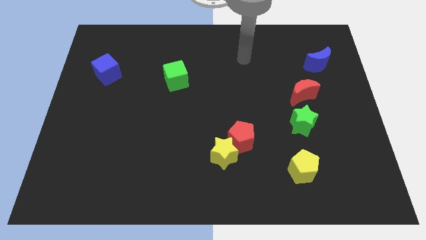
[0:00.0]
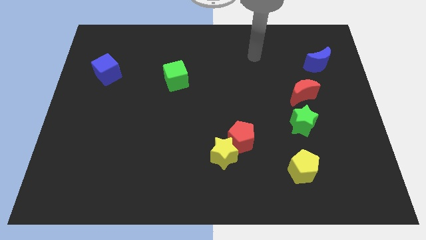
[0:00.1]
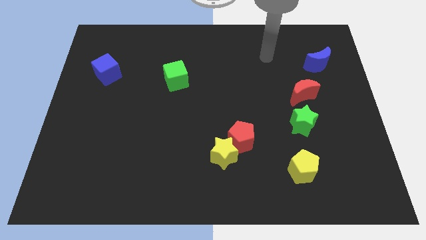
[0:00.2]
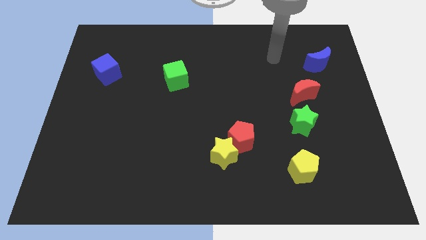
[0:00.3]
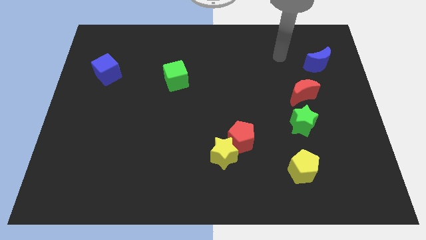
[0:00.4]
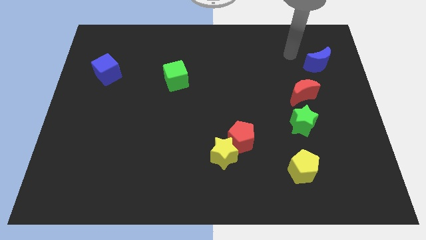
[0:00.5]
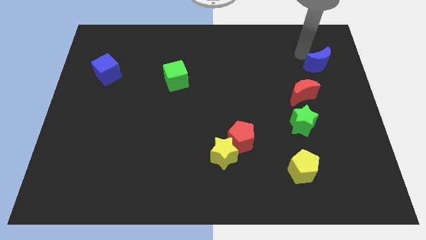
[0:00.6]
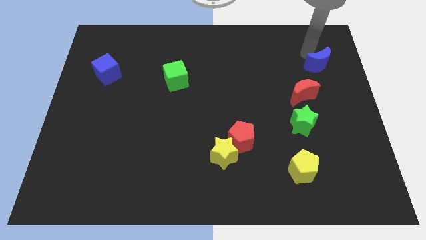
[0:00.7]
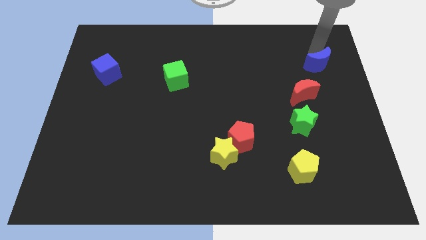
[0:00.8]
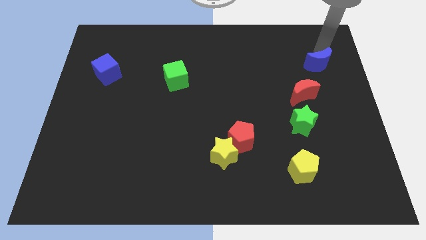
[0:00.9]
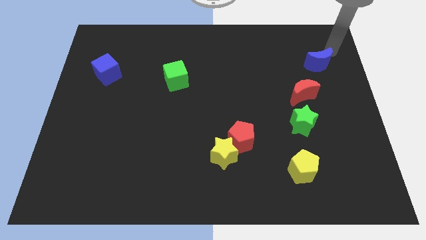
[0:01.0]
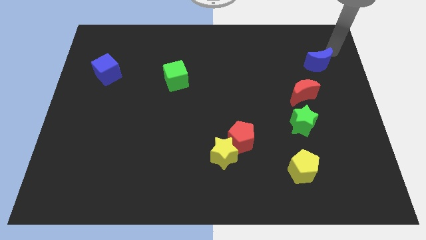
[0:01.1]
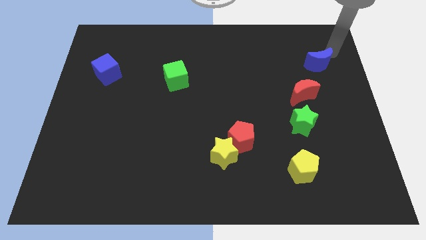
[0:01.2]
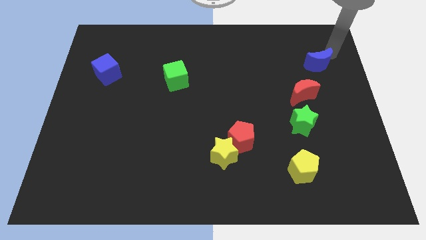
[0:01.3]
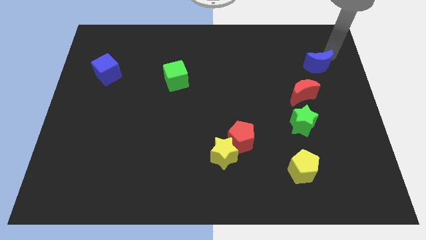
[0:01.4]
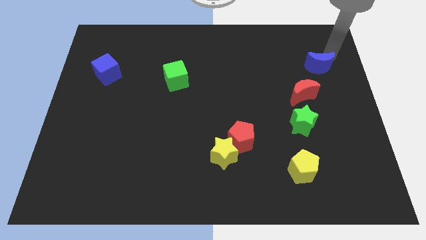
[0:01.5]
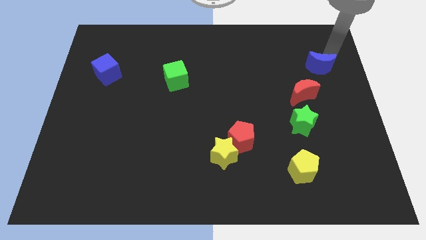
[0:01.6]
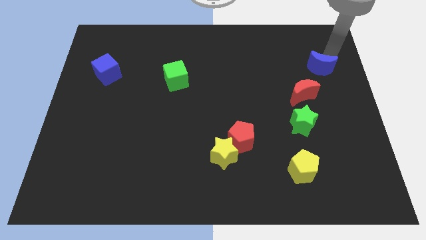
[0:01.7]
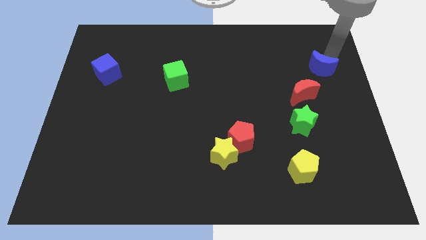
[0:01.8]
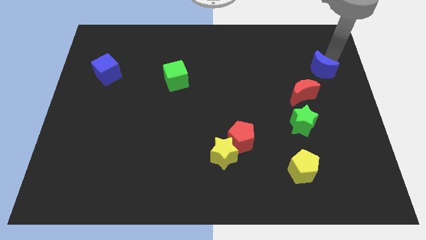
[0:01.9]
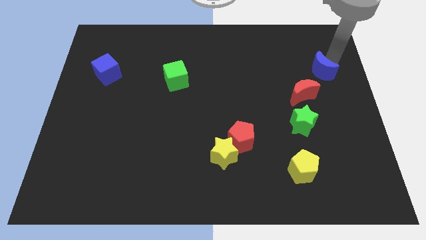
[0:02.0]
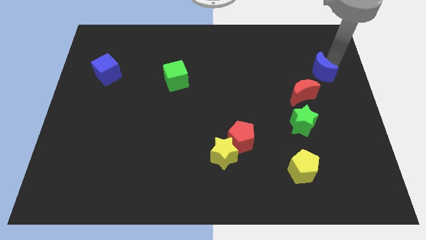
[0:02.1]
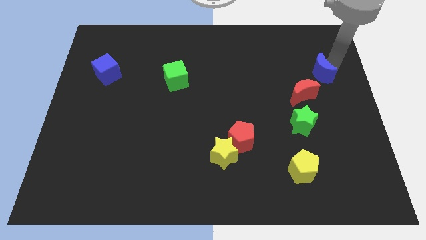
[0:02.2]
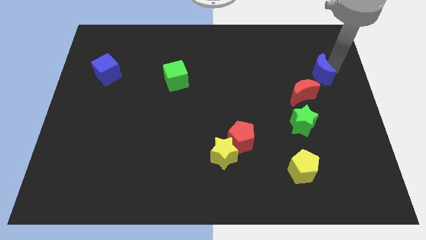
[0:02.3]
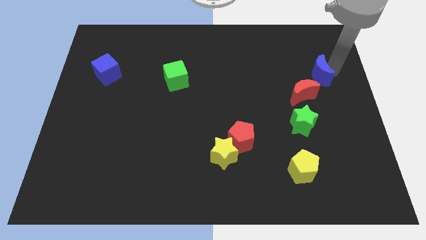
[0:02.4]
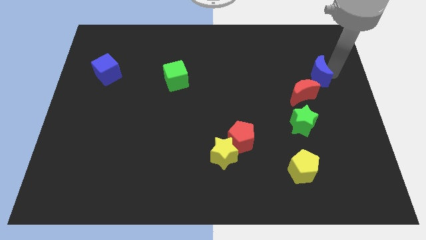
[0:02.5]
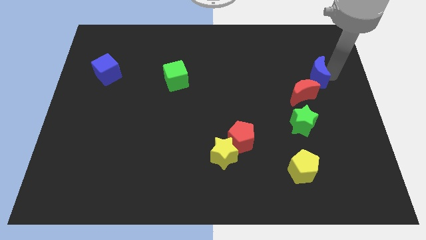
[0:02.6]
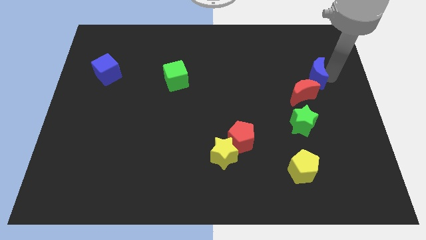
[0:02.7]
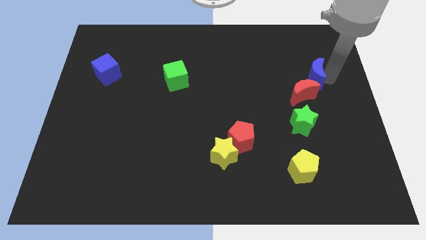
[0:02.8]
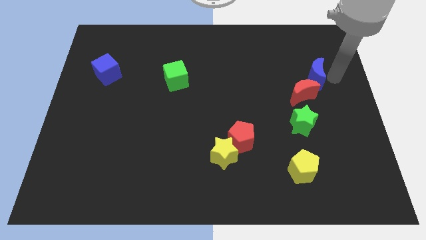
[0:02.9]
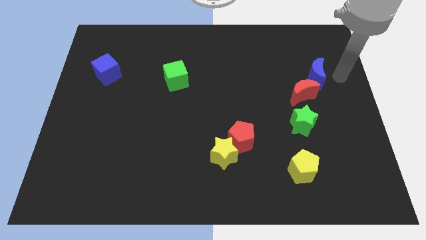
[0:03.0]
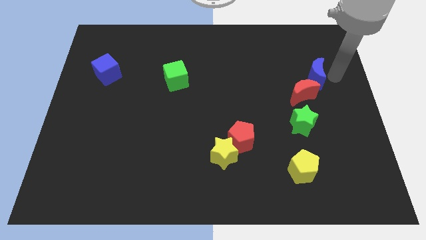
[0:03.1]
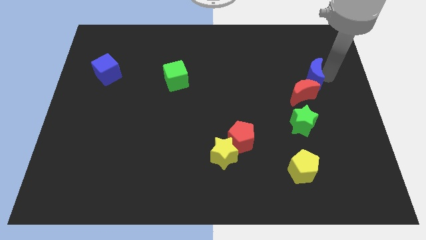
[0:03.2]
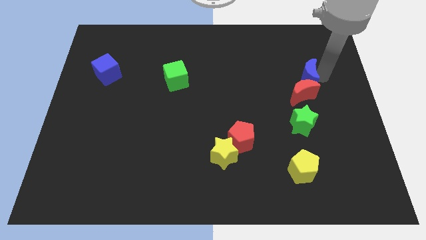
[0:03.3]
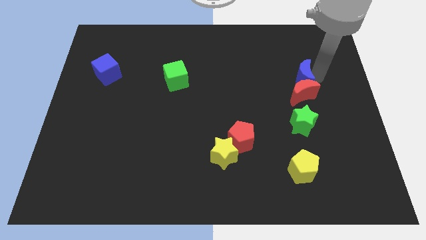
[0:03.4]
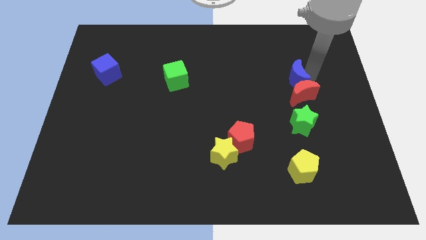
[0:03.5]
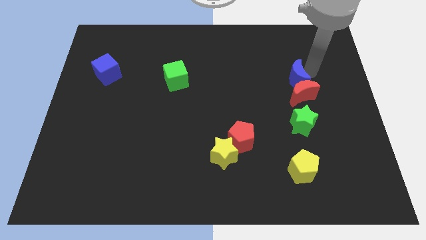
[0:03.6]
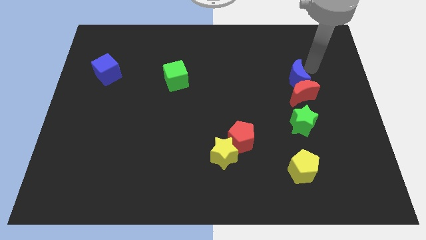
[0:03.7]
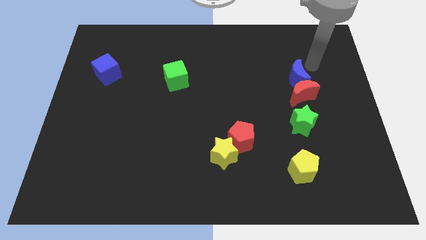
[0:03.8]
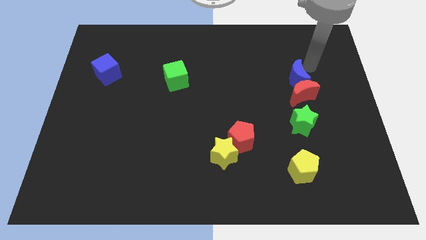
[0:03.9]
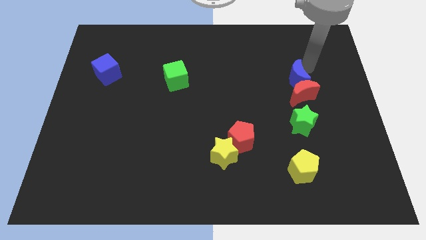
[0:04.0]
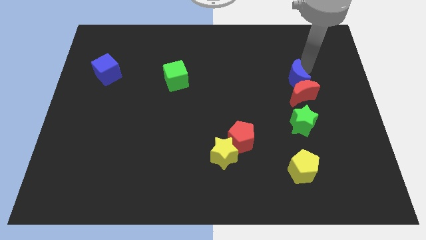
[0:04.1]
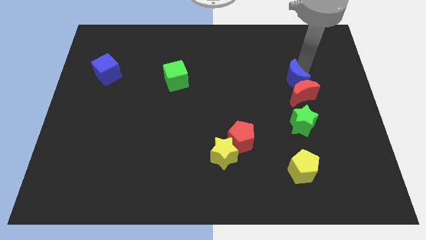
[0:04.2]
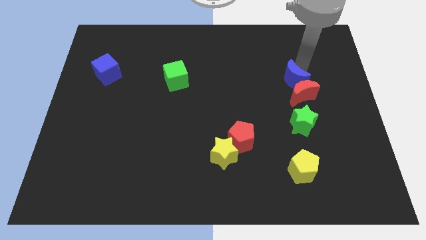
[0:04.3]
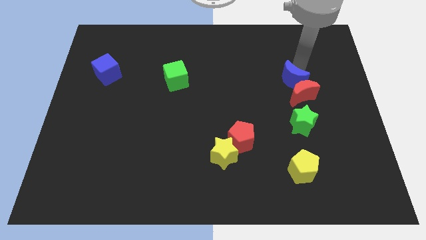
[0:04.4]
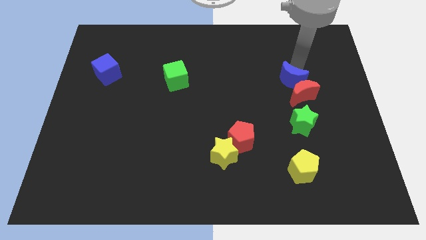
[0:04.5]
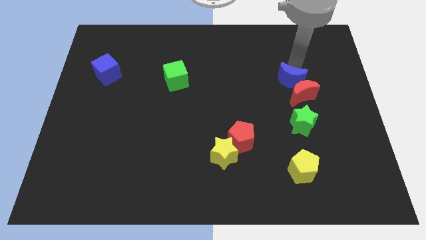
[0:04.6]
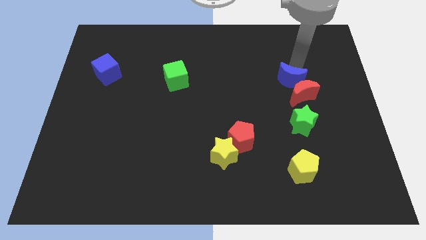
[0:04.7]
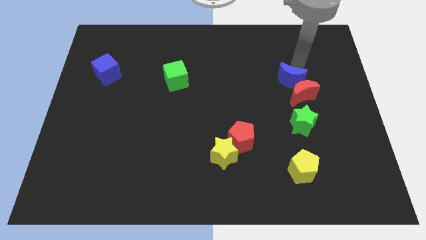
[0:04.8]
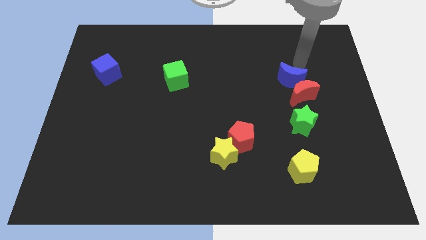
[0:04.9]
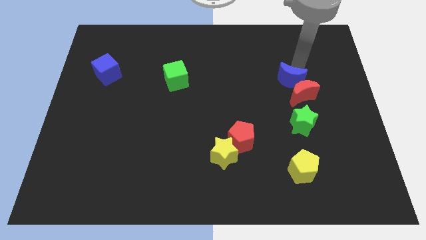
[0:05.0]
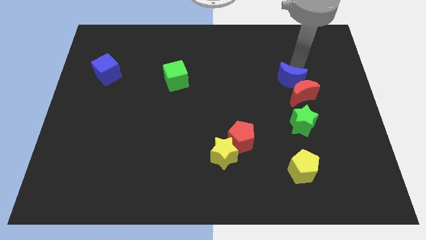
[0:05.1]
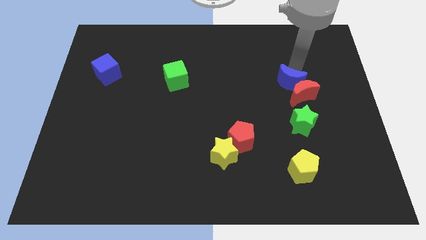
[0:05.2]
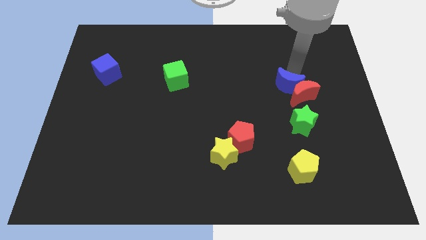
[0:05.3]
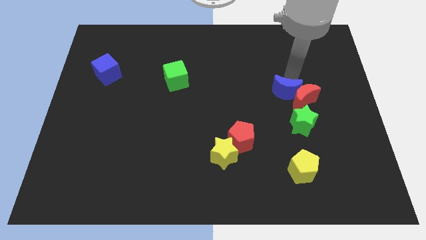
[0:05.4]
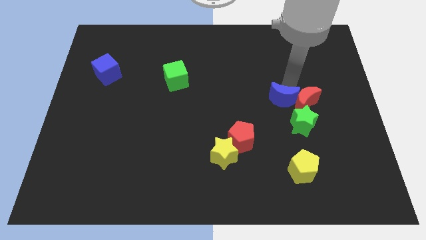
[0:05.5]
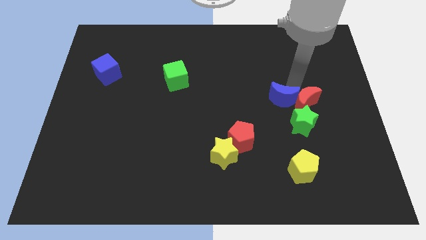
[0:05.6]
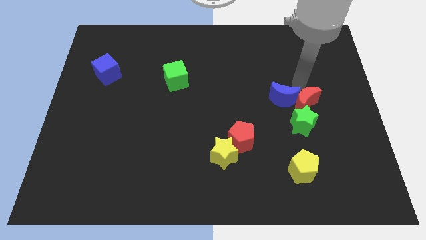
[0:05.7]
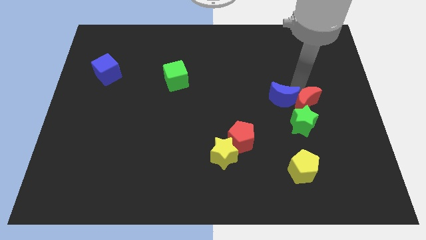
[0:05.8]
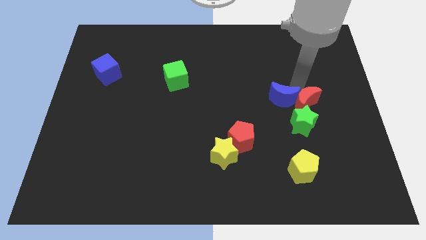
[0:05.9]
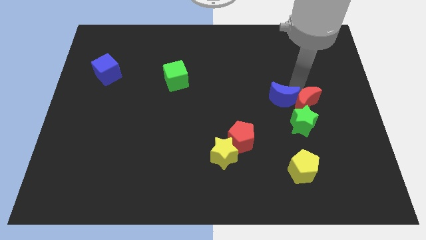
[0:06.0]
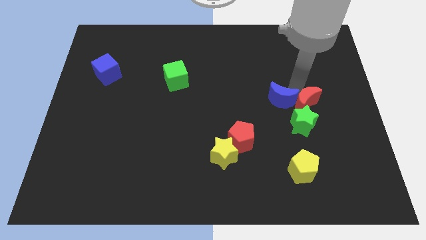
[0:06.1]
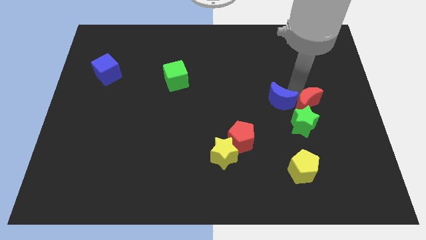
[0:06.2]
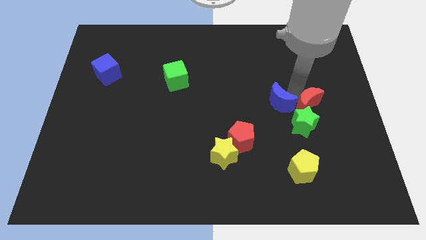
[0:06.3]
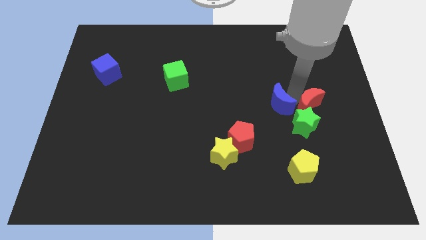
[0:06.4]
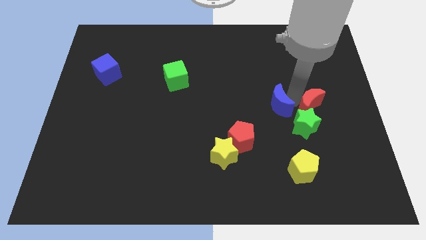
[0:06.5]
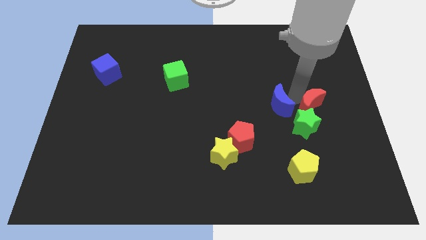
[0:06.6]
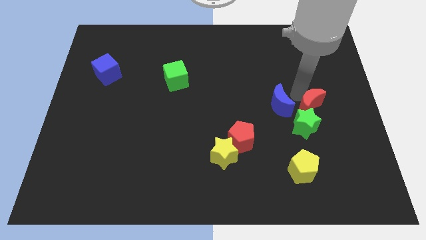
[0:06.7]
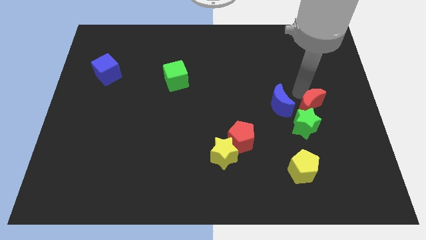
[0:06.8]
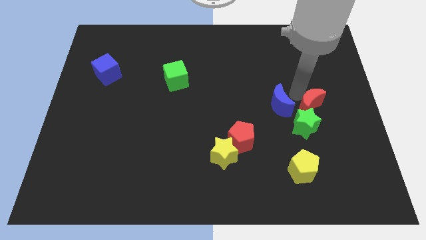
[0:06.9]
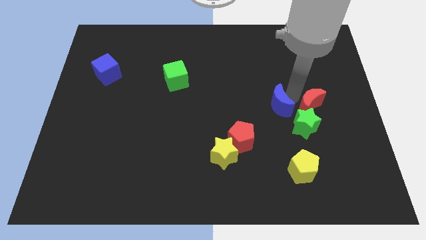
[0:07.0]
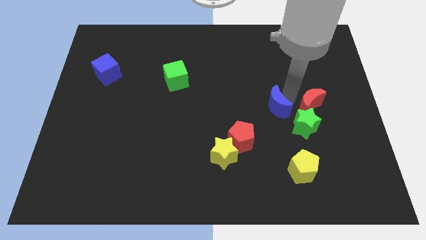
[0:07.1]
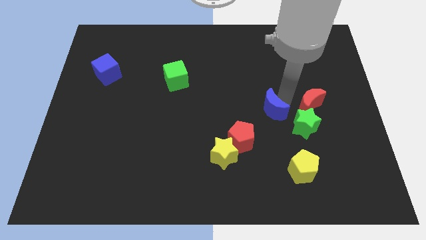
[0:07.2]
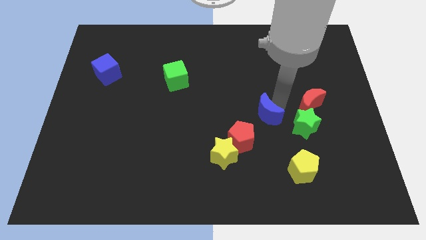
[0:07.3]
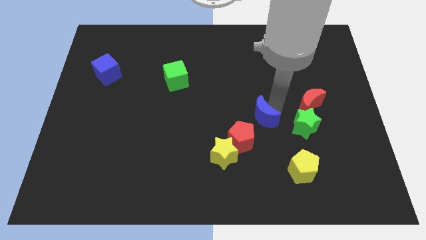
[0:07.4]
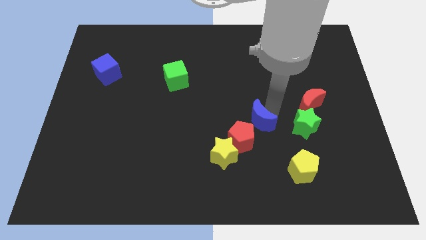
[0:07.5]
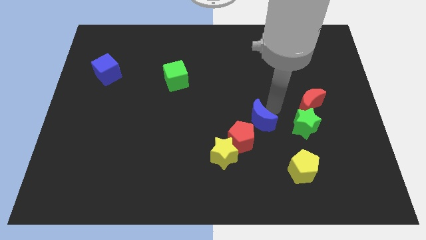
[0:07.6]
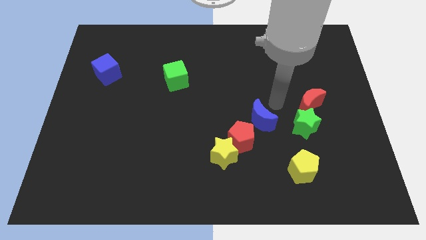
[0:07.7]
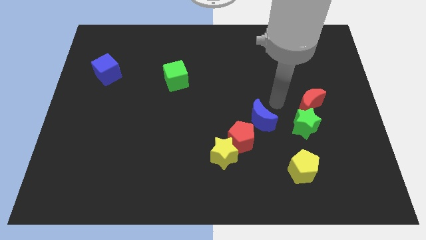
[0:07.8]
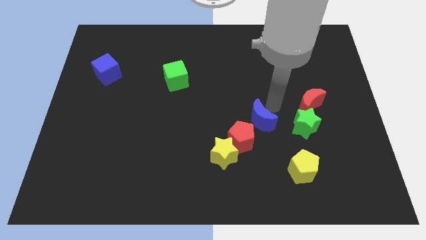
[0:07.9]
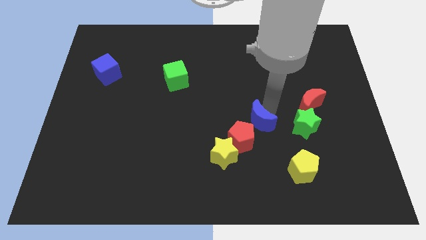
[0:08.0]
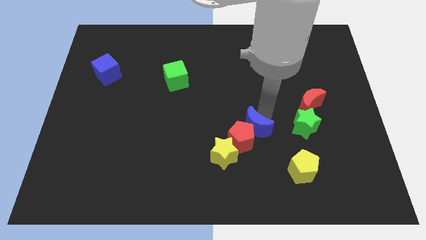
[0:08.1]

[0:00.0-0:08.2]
push the blue moon to the red pentagon

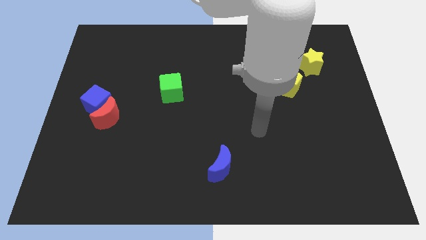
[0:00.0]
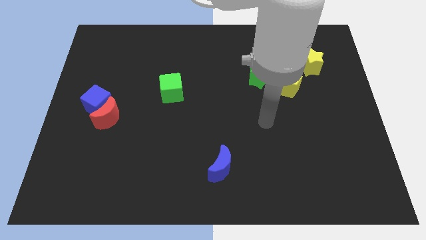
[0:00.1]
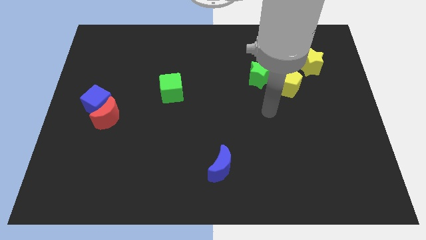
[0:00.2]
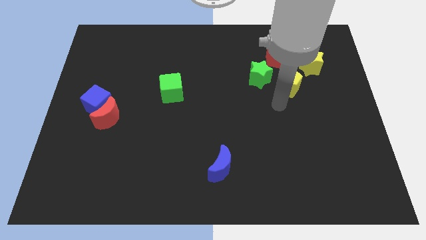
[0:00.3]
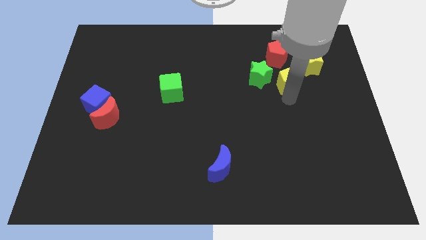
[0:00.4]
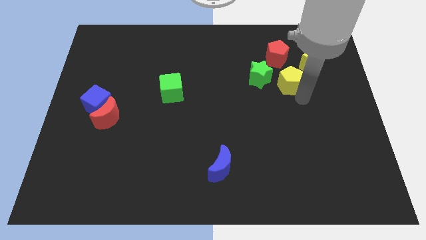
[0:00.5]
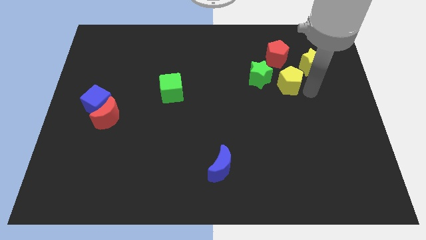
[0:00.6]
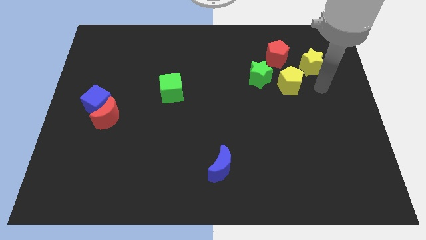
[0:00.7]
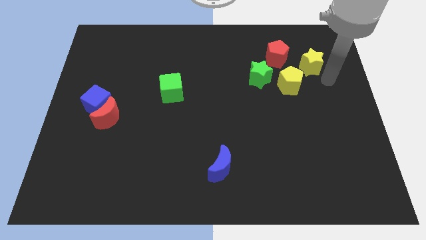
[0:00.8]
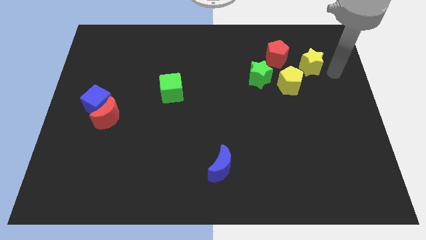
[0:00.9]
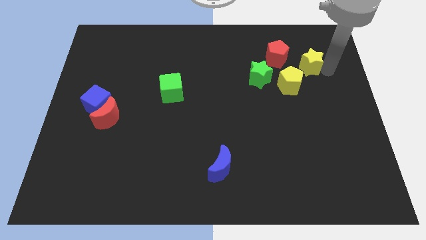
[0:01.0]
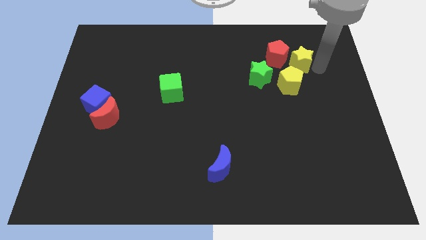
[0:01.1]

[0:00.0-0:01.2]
move the yellow star to the red pentagon
